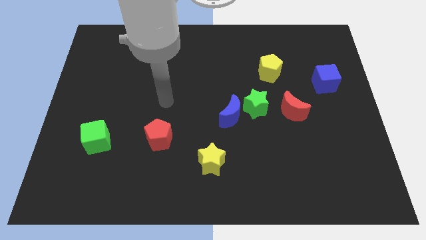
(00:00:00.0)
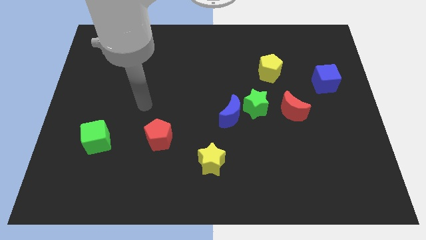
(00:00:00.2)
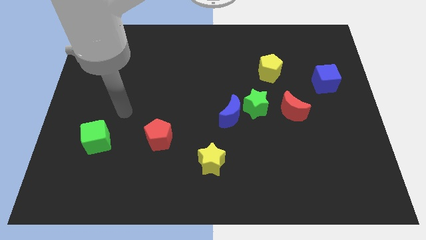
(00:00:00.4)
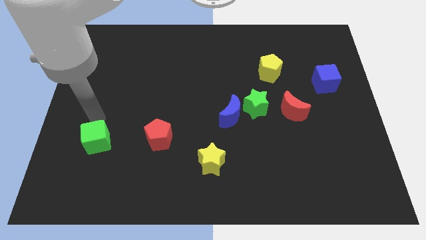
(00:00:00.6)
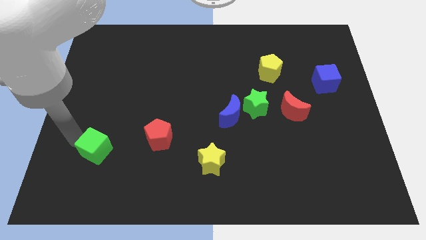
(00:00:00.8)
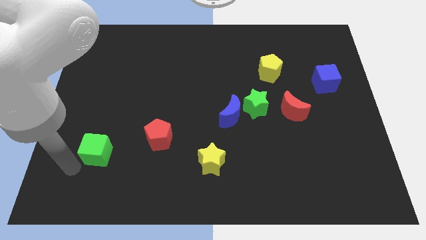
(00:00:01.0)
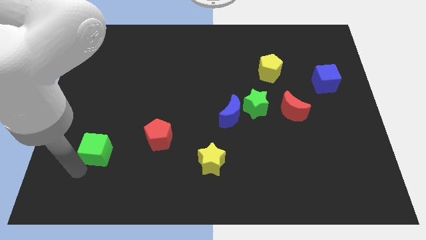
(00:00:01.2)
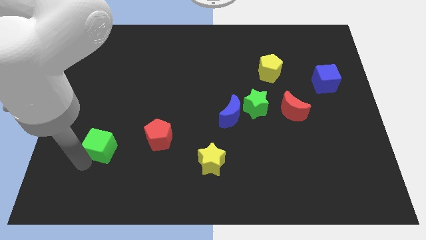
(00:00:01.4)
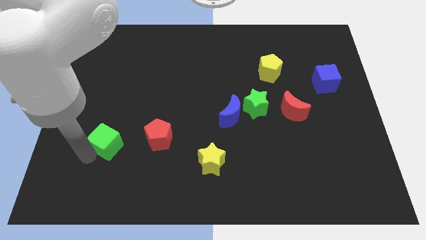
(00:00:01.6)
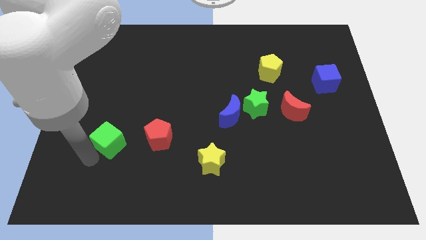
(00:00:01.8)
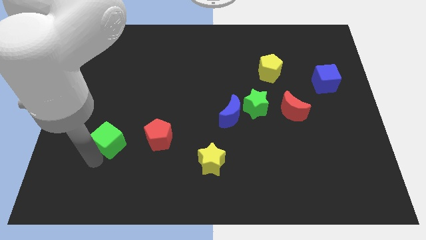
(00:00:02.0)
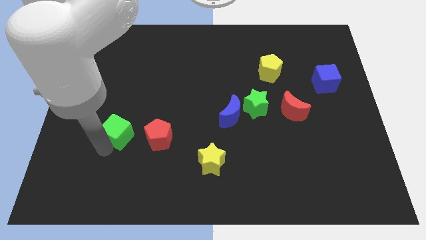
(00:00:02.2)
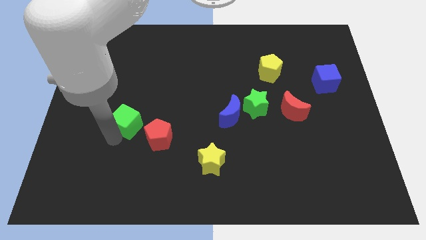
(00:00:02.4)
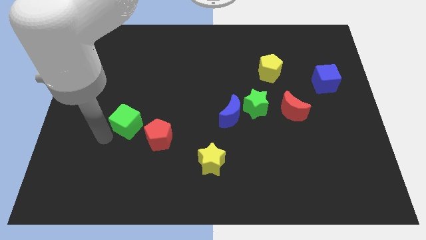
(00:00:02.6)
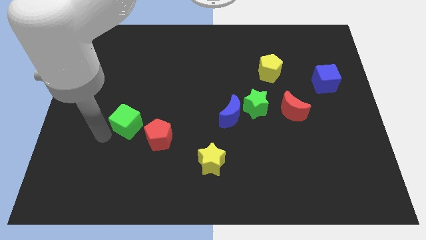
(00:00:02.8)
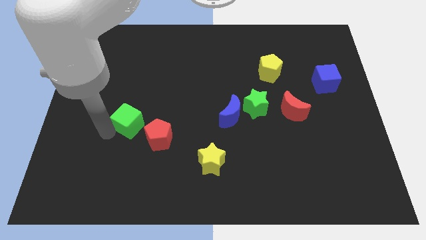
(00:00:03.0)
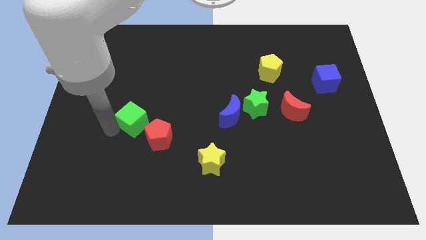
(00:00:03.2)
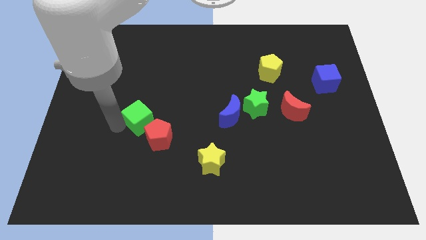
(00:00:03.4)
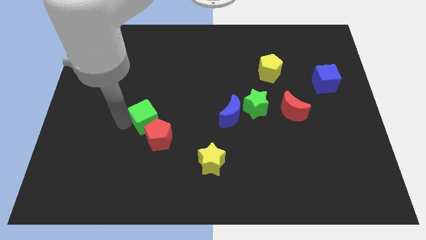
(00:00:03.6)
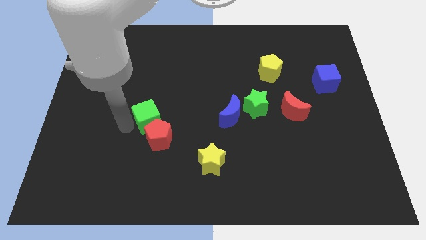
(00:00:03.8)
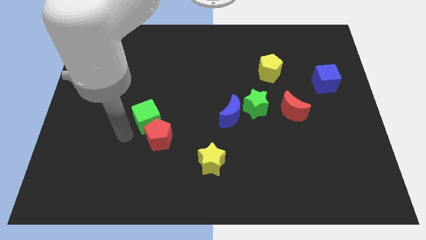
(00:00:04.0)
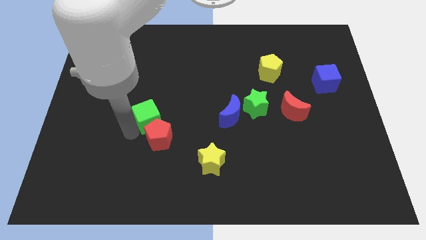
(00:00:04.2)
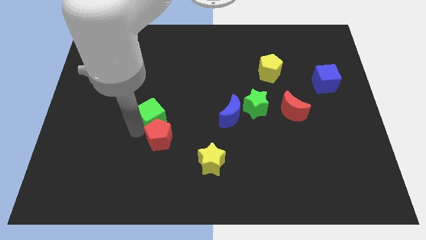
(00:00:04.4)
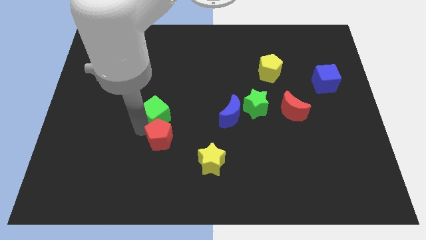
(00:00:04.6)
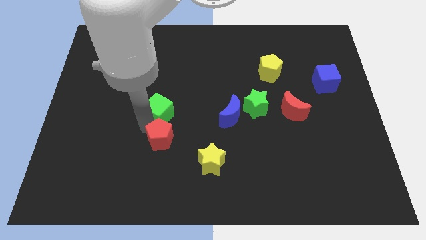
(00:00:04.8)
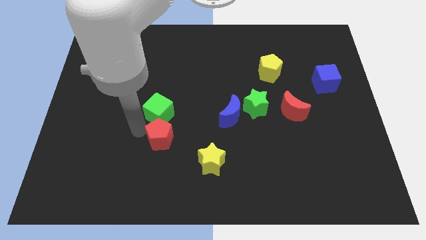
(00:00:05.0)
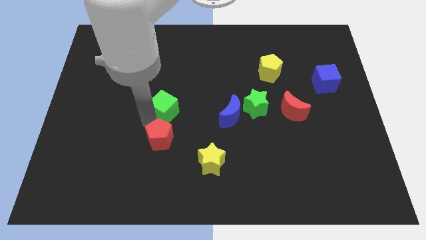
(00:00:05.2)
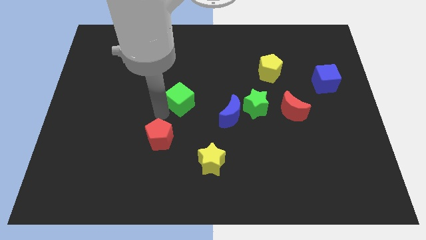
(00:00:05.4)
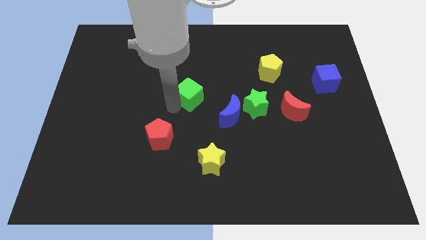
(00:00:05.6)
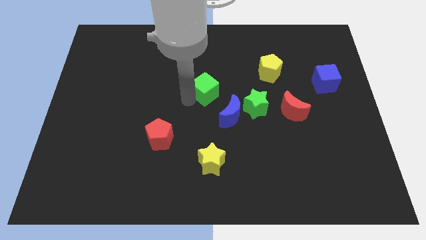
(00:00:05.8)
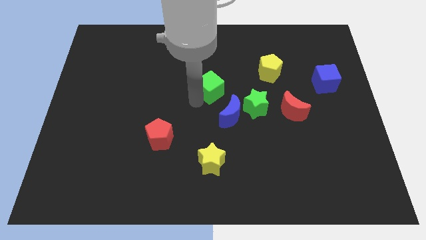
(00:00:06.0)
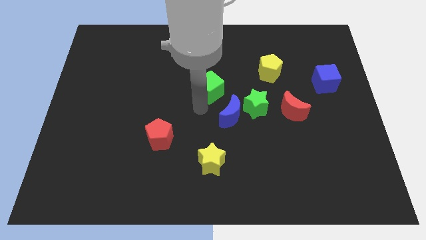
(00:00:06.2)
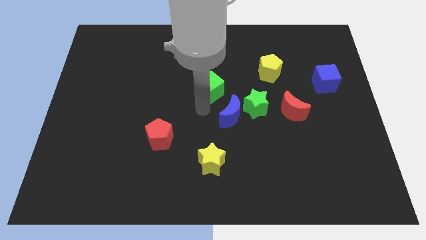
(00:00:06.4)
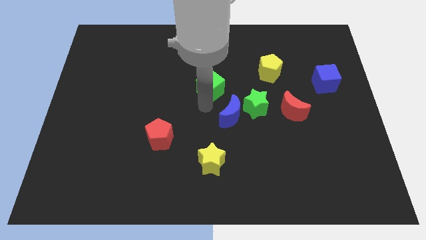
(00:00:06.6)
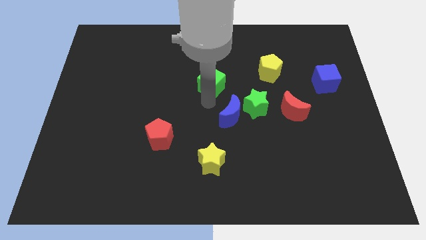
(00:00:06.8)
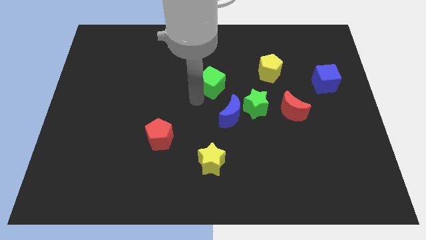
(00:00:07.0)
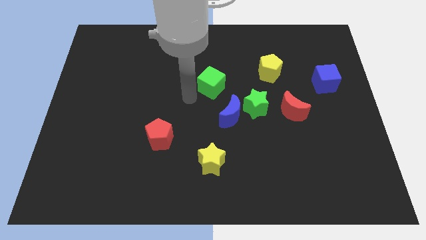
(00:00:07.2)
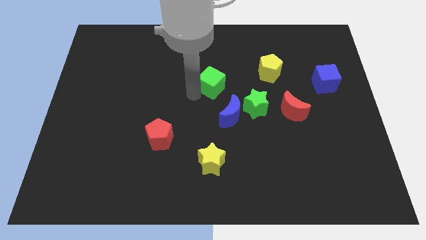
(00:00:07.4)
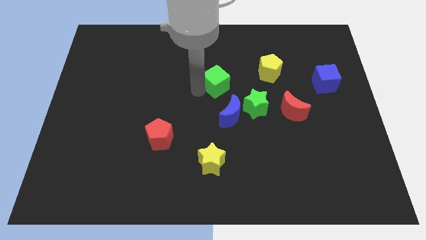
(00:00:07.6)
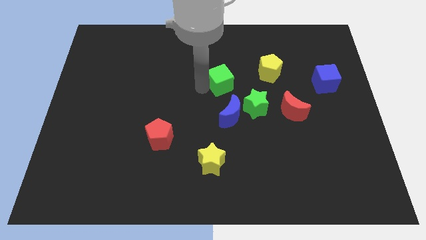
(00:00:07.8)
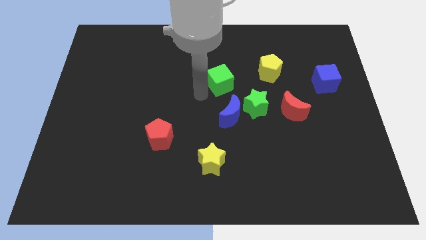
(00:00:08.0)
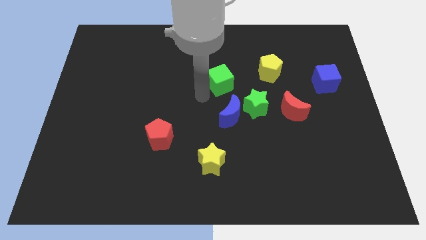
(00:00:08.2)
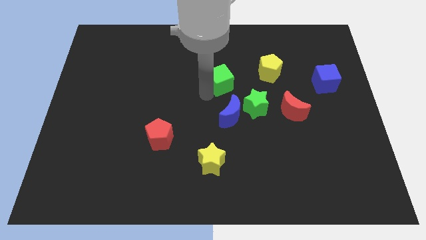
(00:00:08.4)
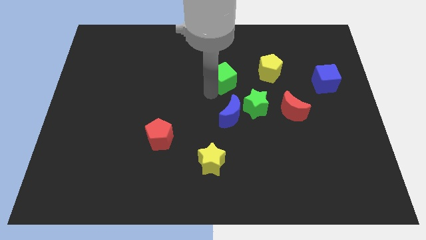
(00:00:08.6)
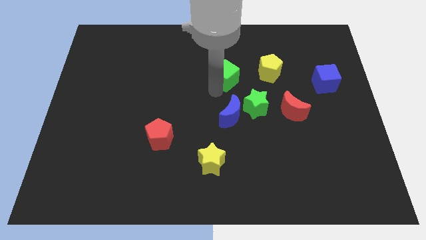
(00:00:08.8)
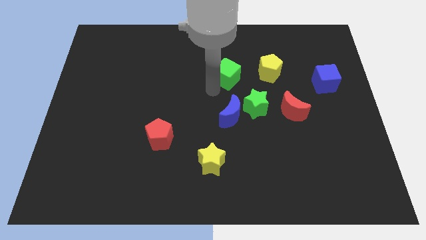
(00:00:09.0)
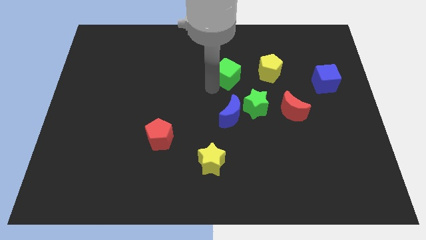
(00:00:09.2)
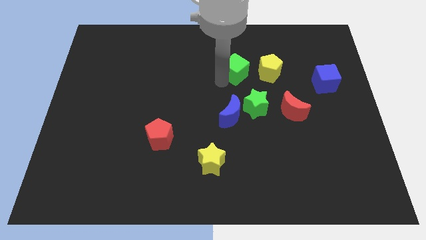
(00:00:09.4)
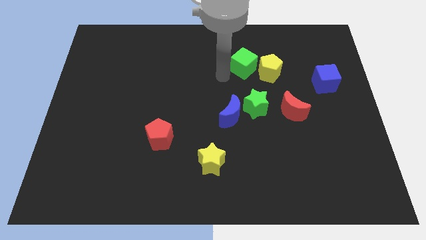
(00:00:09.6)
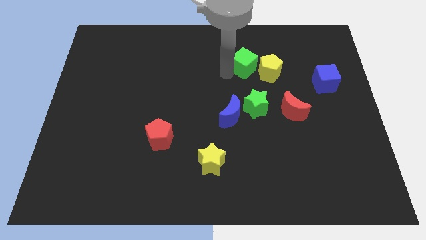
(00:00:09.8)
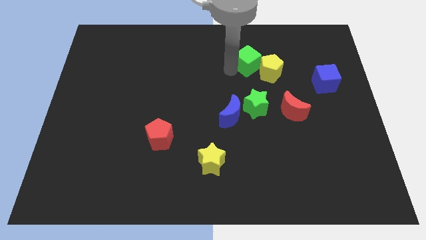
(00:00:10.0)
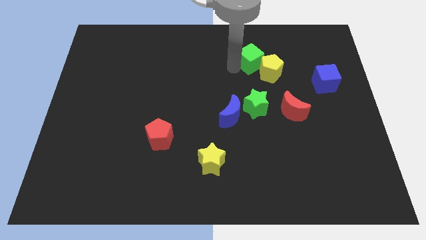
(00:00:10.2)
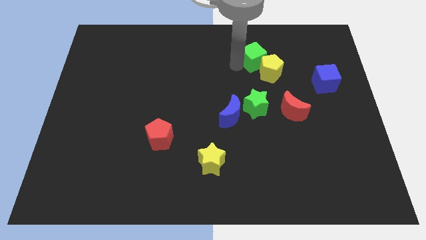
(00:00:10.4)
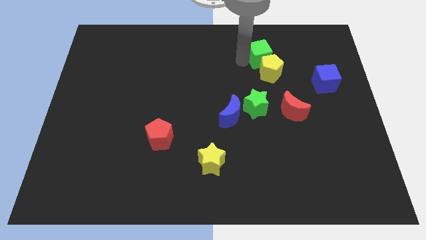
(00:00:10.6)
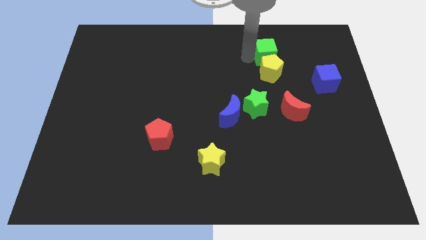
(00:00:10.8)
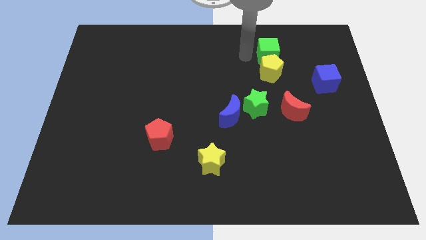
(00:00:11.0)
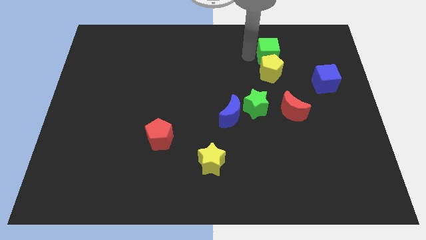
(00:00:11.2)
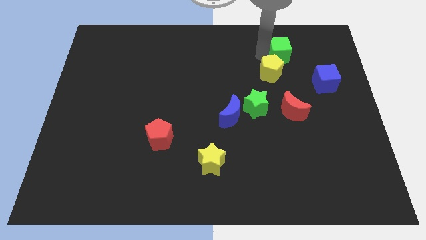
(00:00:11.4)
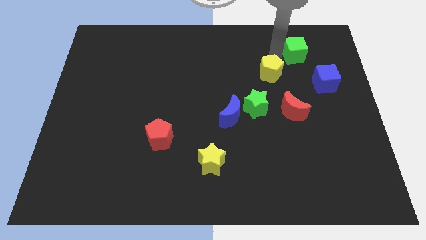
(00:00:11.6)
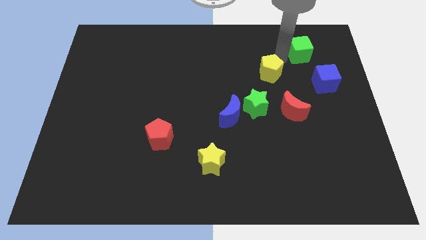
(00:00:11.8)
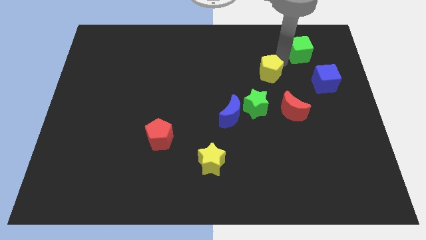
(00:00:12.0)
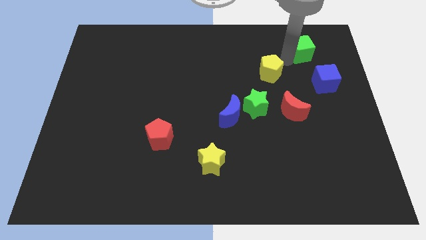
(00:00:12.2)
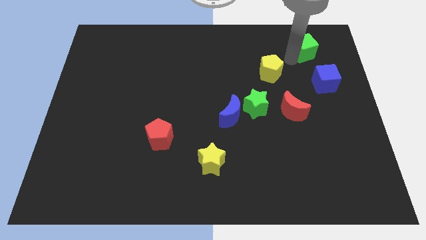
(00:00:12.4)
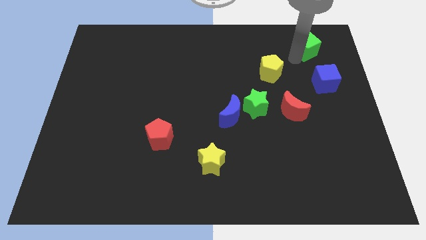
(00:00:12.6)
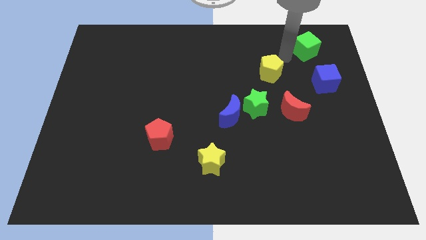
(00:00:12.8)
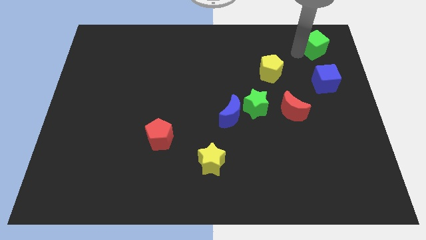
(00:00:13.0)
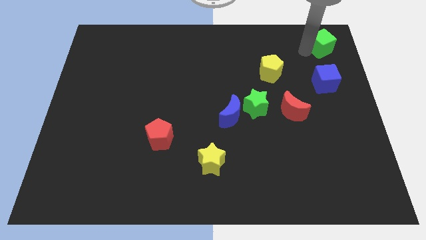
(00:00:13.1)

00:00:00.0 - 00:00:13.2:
push the green cube to the upper right corner
